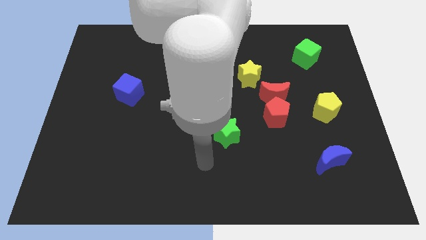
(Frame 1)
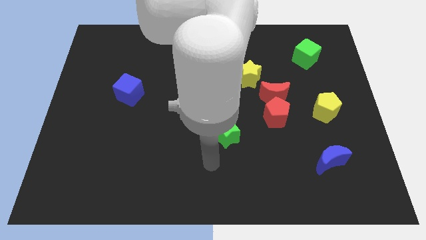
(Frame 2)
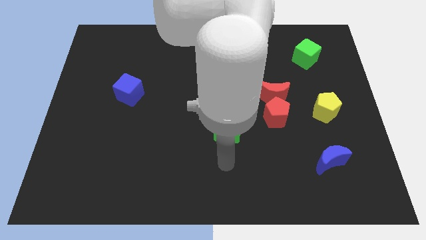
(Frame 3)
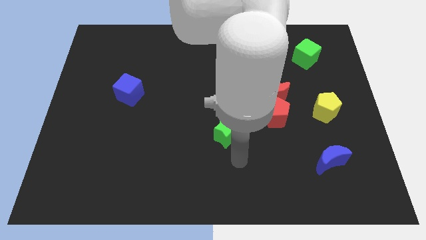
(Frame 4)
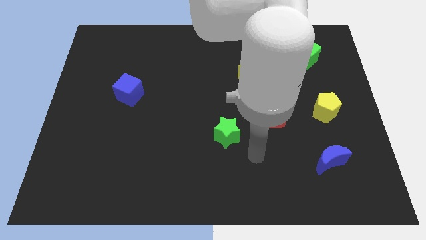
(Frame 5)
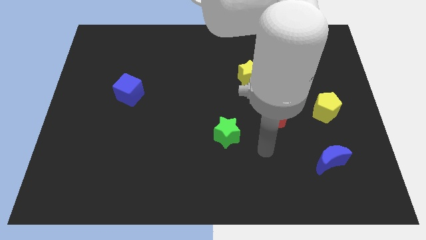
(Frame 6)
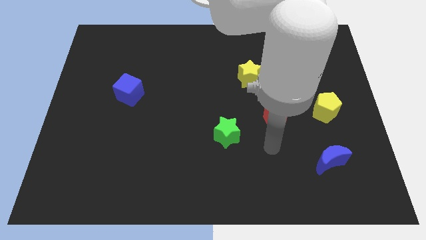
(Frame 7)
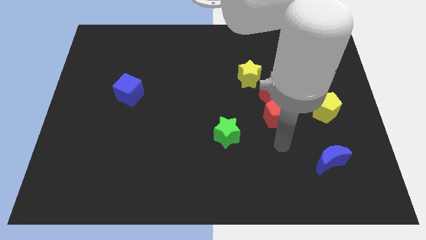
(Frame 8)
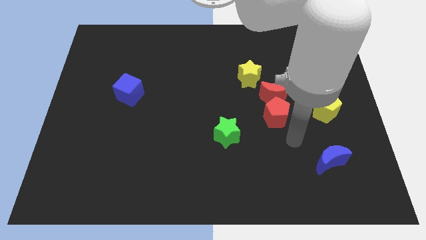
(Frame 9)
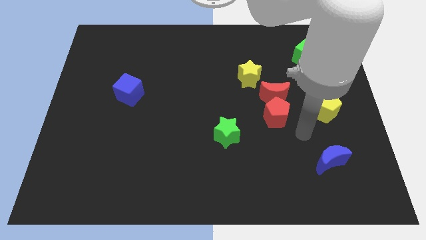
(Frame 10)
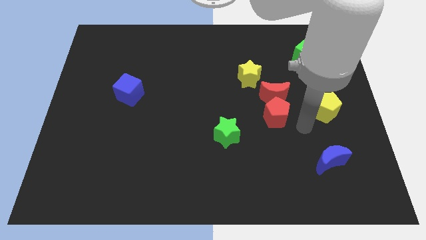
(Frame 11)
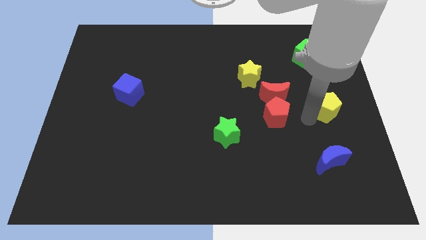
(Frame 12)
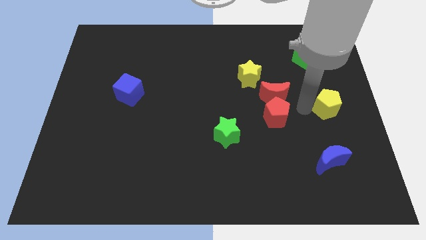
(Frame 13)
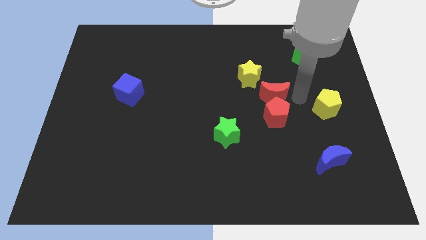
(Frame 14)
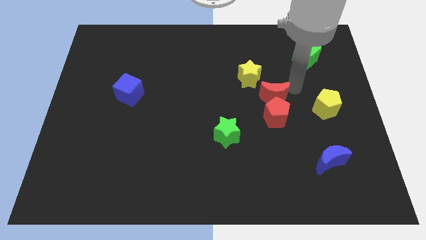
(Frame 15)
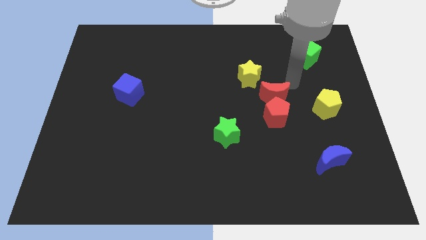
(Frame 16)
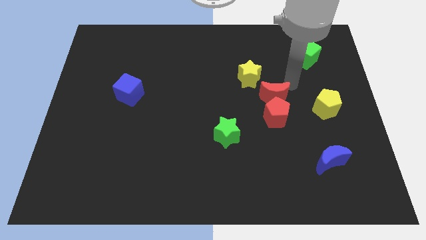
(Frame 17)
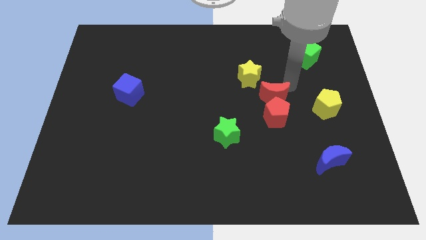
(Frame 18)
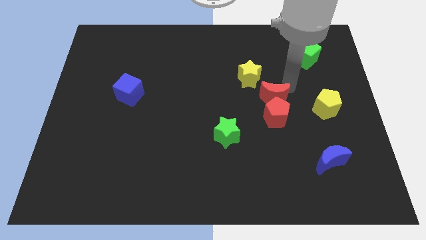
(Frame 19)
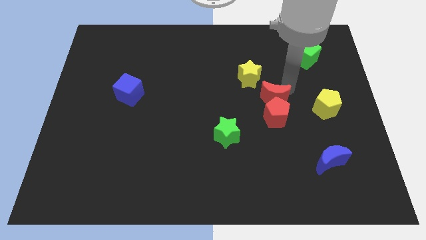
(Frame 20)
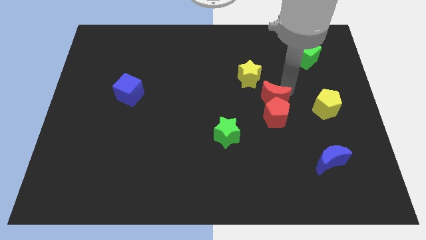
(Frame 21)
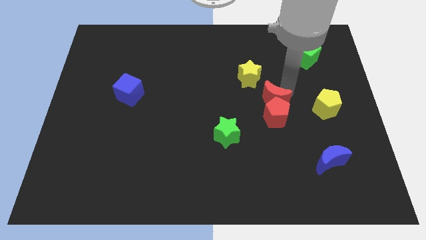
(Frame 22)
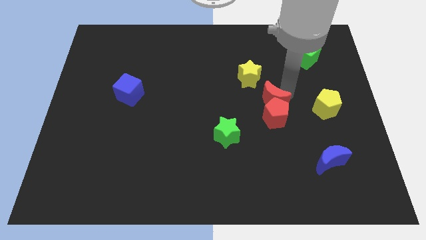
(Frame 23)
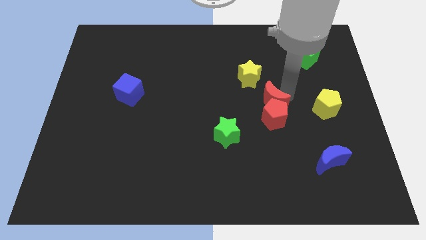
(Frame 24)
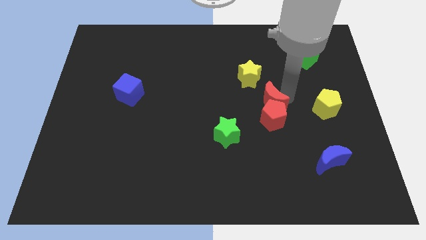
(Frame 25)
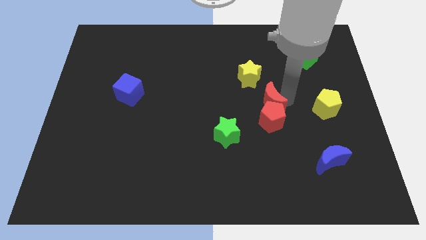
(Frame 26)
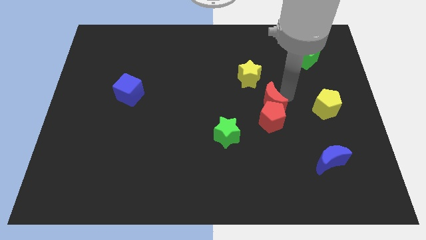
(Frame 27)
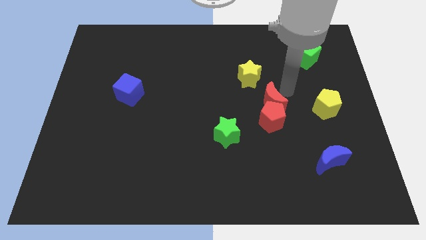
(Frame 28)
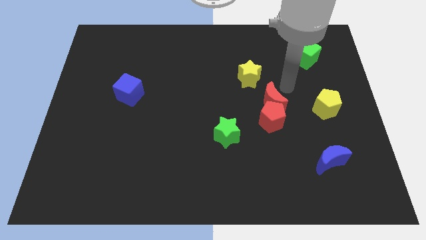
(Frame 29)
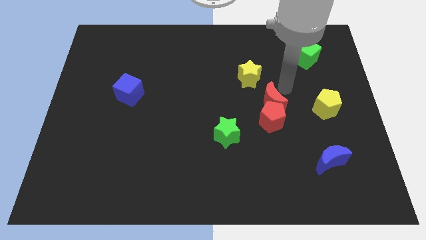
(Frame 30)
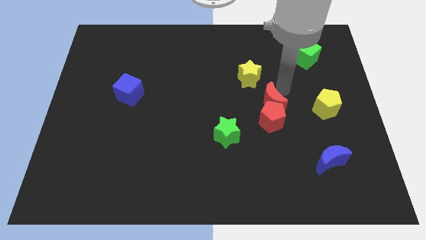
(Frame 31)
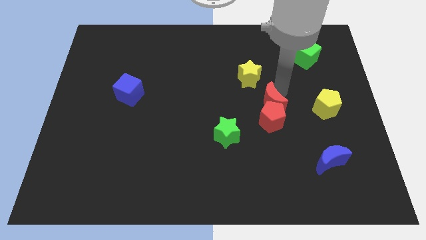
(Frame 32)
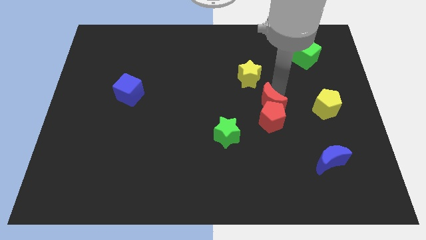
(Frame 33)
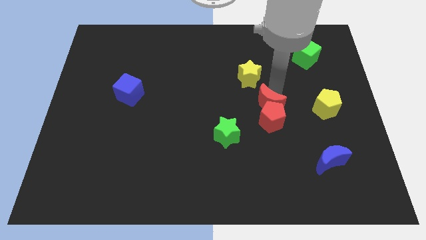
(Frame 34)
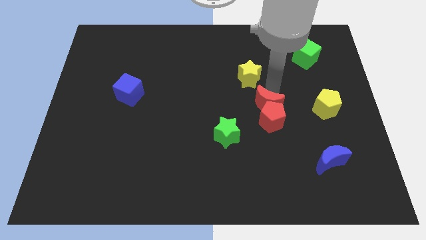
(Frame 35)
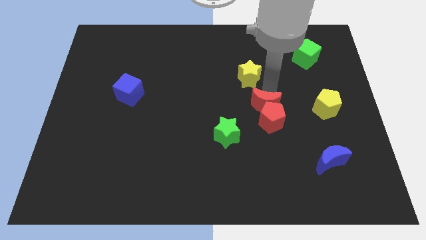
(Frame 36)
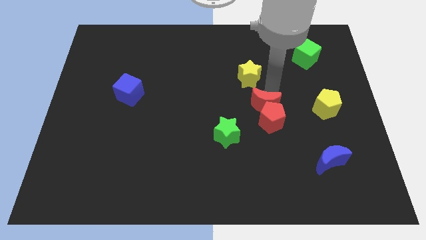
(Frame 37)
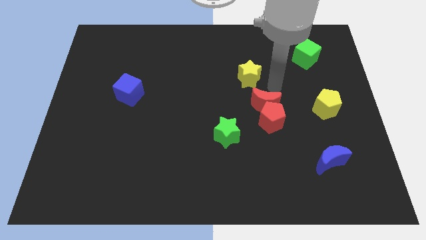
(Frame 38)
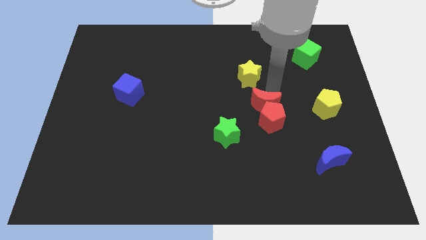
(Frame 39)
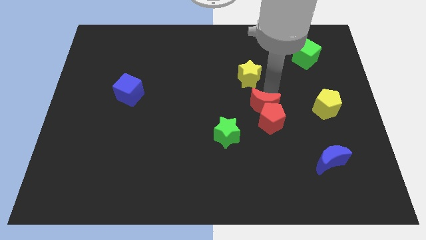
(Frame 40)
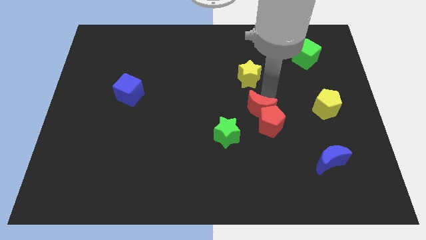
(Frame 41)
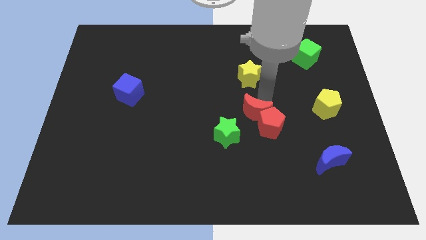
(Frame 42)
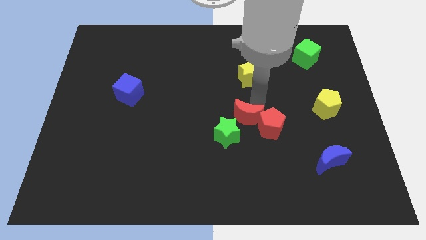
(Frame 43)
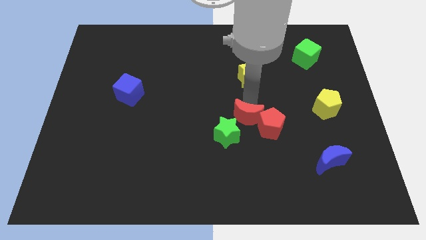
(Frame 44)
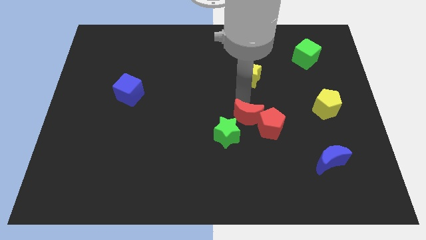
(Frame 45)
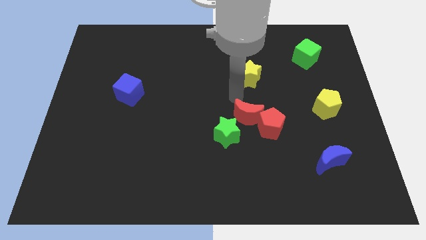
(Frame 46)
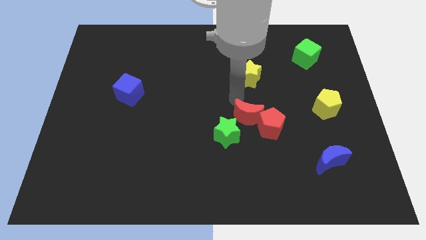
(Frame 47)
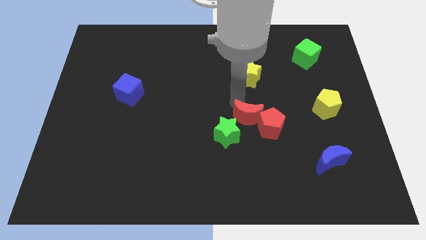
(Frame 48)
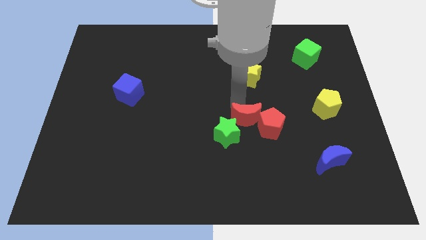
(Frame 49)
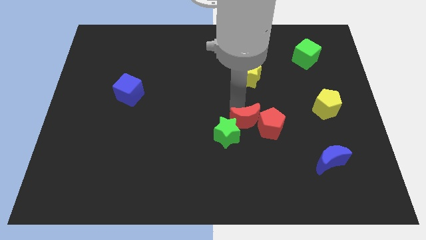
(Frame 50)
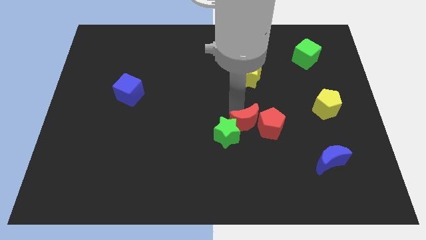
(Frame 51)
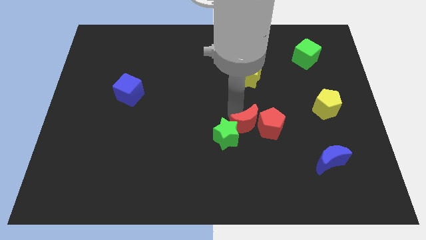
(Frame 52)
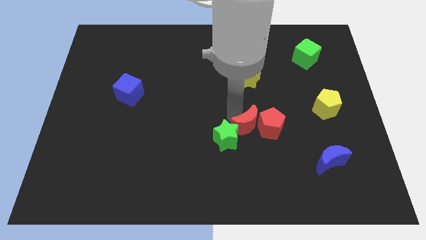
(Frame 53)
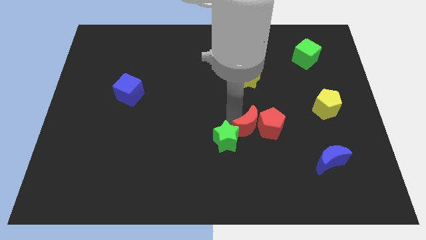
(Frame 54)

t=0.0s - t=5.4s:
slide the red moon down a little bit

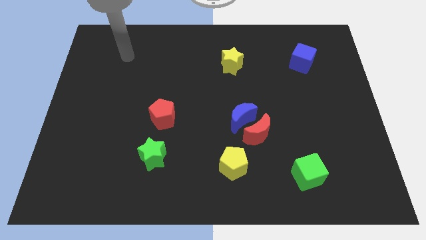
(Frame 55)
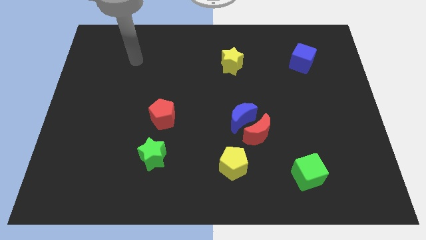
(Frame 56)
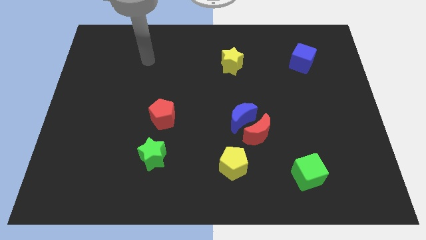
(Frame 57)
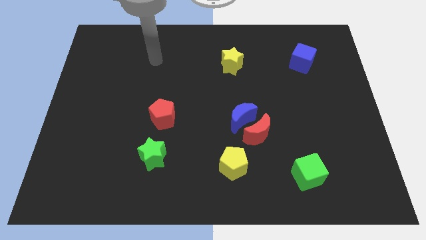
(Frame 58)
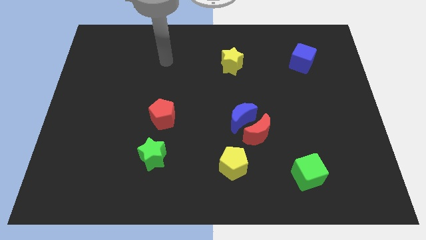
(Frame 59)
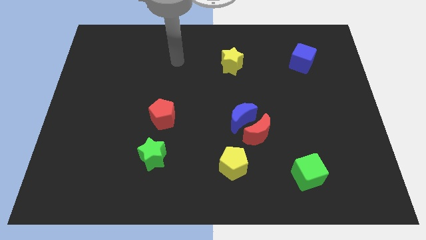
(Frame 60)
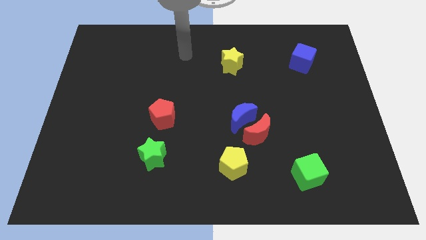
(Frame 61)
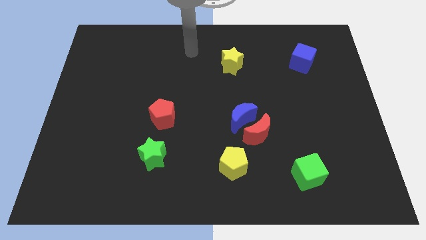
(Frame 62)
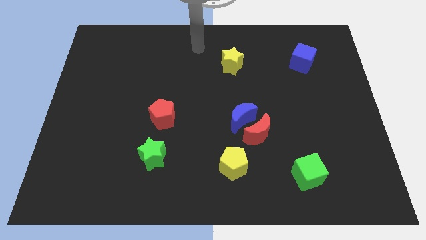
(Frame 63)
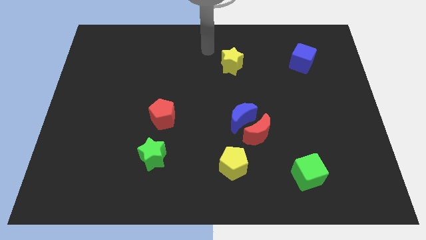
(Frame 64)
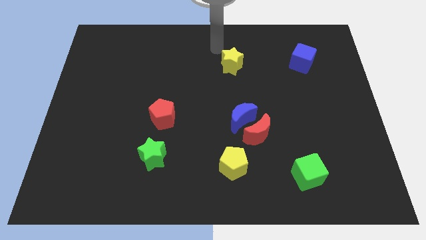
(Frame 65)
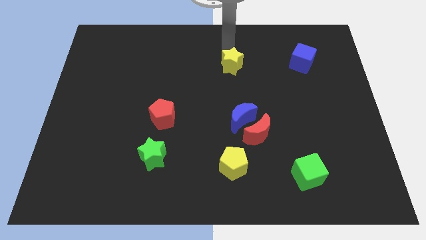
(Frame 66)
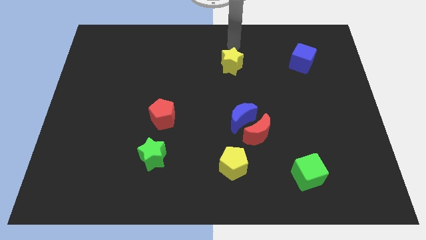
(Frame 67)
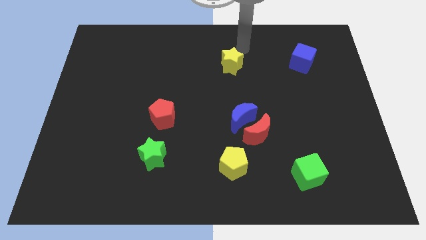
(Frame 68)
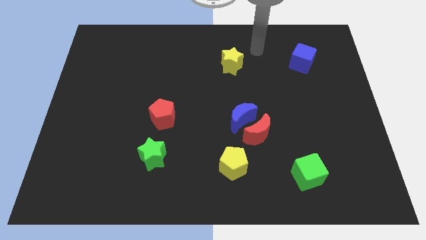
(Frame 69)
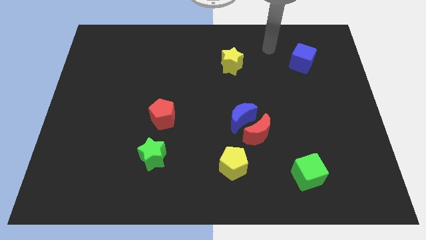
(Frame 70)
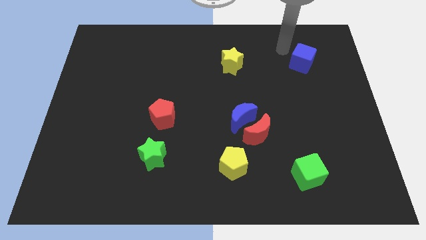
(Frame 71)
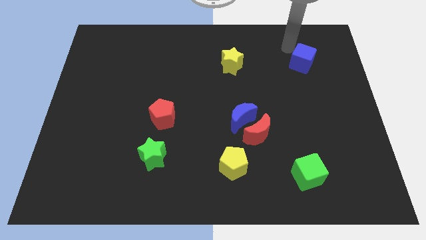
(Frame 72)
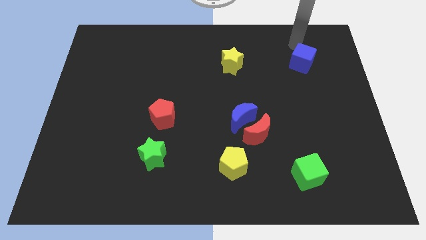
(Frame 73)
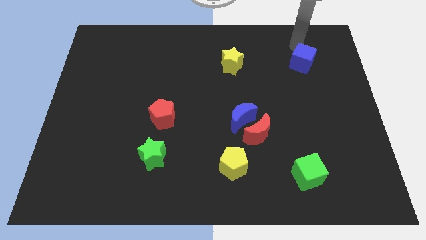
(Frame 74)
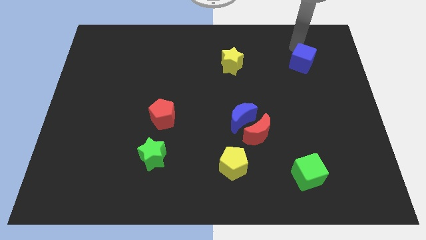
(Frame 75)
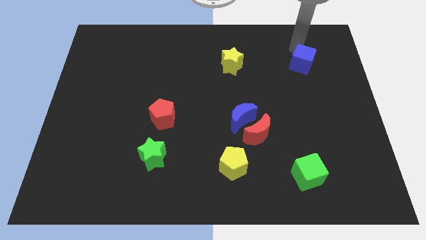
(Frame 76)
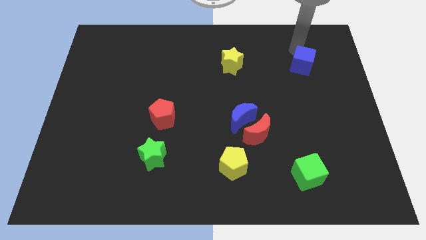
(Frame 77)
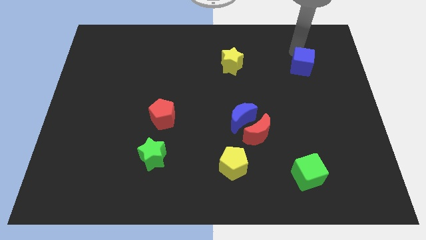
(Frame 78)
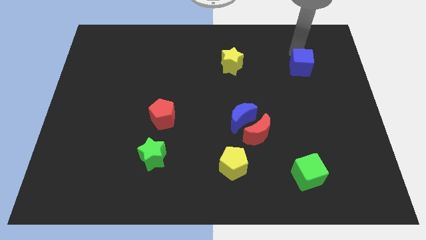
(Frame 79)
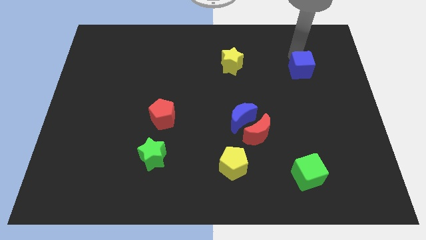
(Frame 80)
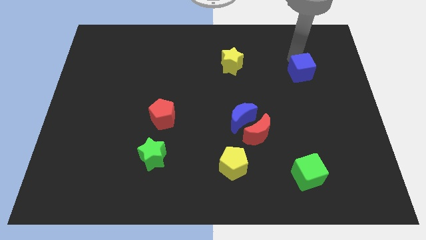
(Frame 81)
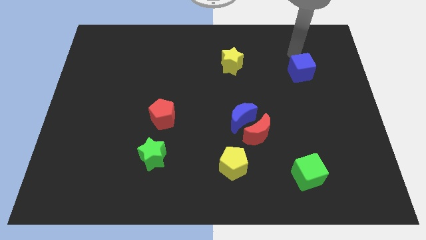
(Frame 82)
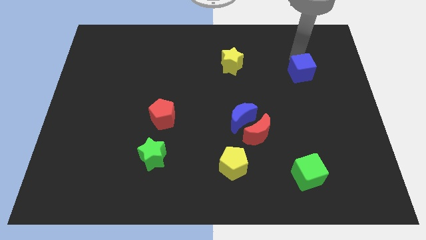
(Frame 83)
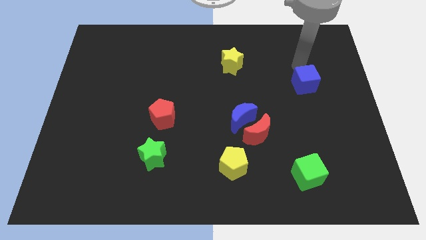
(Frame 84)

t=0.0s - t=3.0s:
move the blue cube a little downwards
